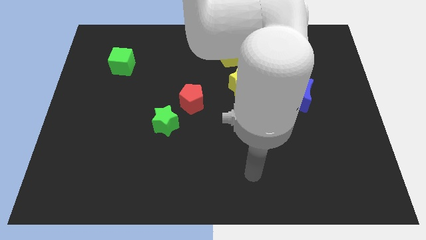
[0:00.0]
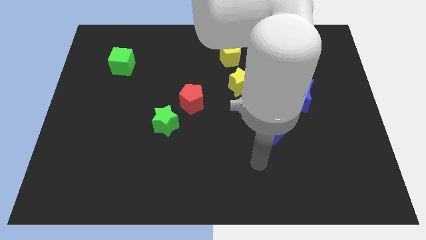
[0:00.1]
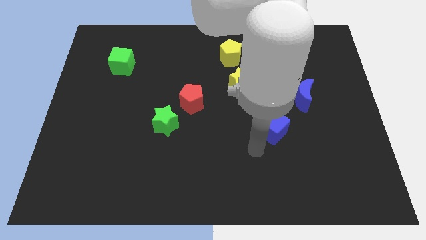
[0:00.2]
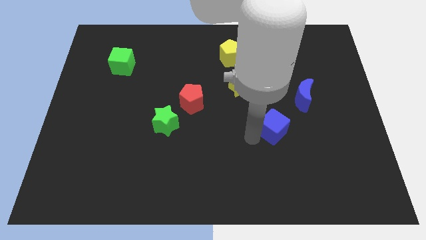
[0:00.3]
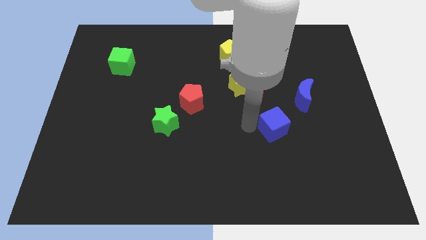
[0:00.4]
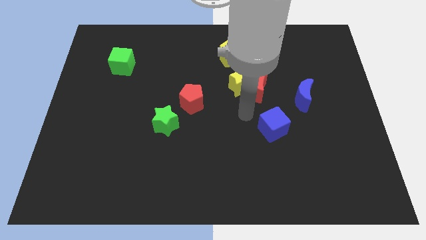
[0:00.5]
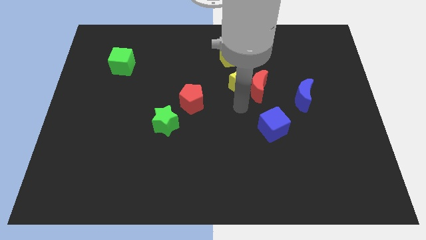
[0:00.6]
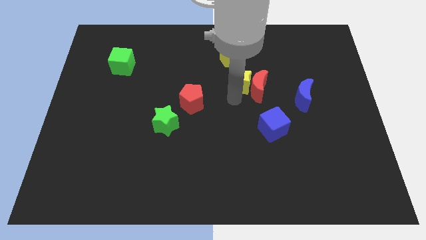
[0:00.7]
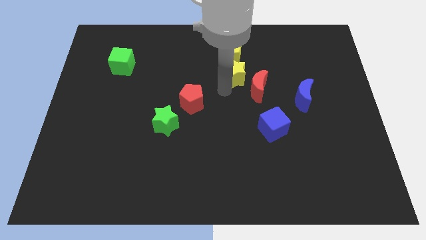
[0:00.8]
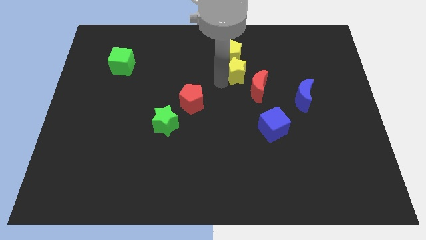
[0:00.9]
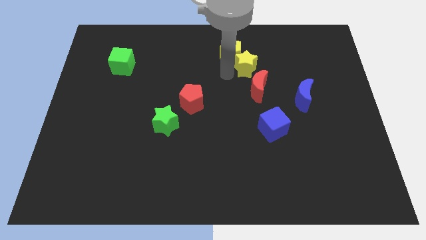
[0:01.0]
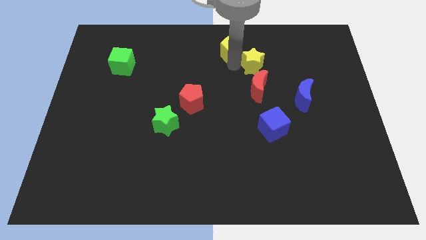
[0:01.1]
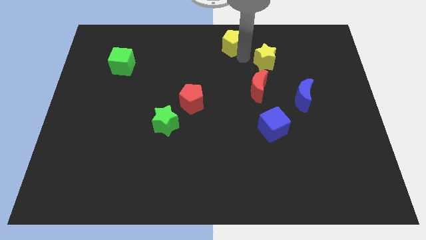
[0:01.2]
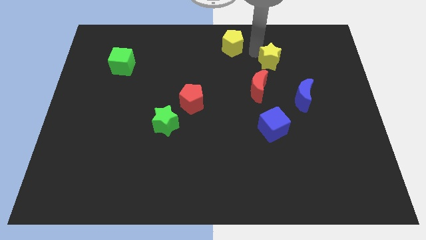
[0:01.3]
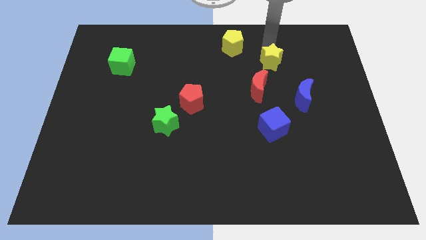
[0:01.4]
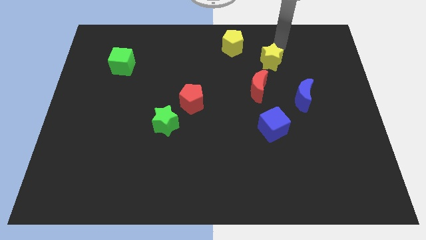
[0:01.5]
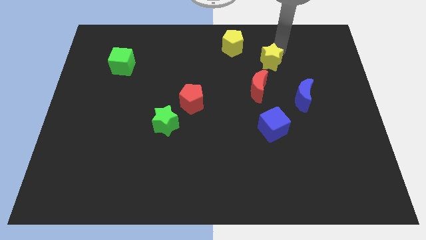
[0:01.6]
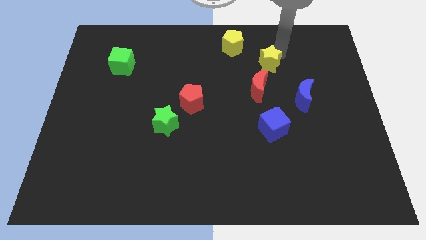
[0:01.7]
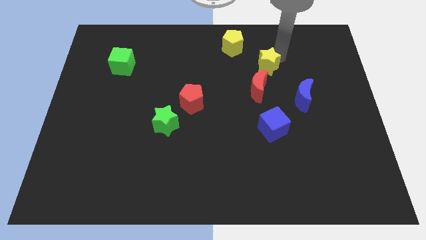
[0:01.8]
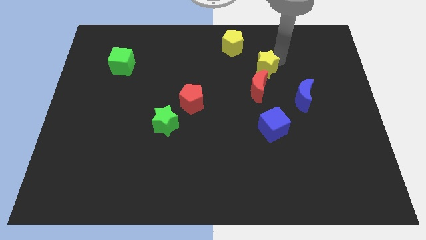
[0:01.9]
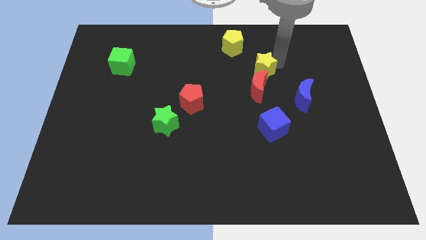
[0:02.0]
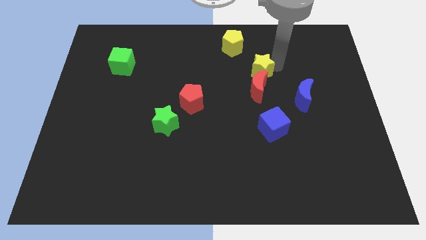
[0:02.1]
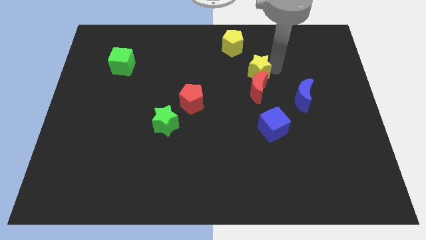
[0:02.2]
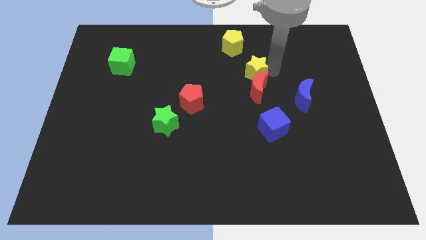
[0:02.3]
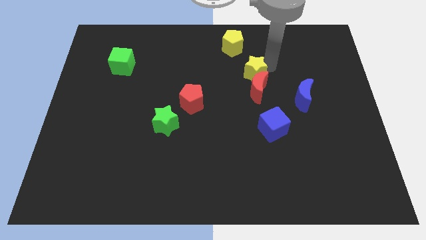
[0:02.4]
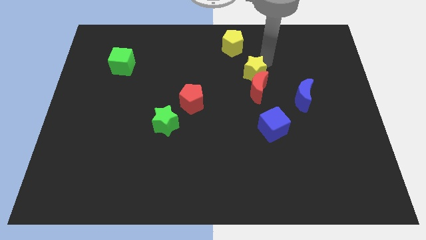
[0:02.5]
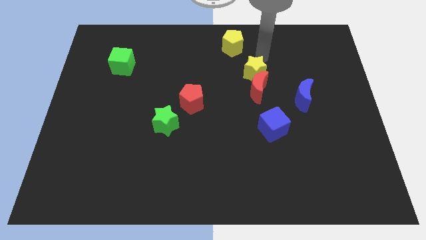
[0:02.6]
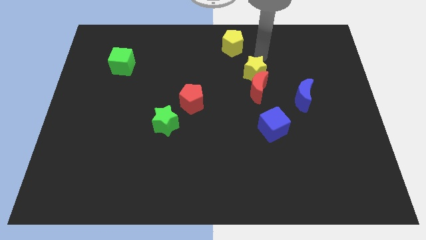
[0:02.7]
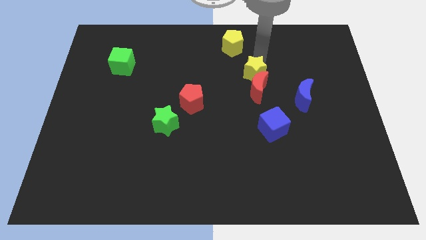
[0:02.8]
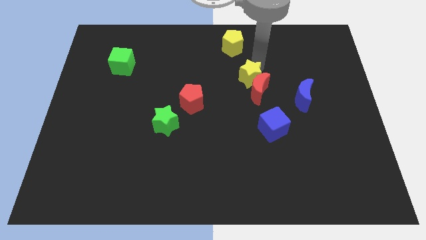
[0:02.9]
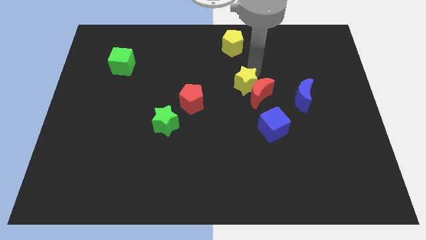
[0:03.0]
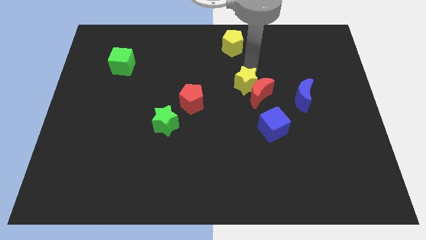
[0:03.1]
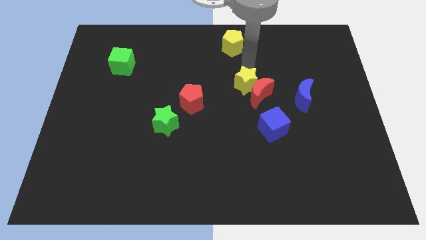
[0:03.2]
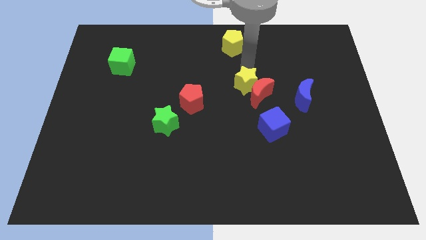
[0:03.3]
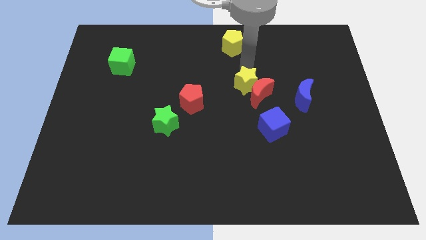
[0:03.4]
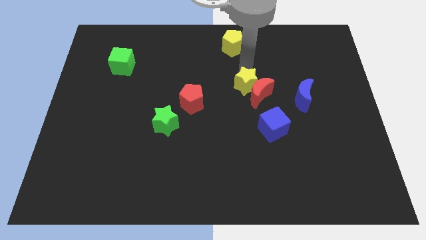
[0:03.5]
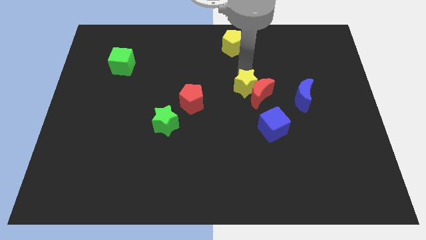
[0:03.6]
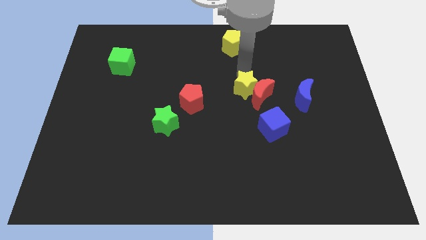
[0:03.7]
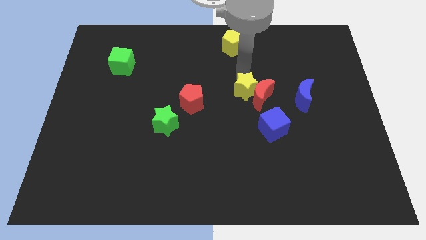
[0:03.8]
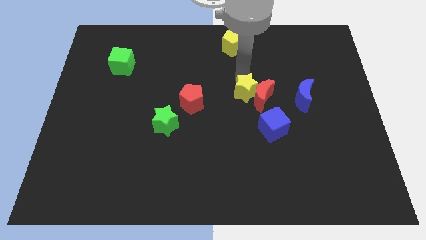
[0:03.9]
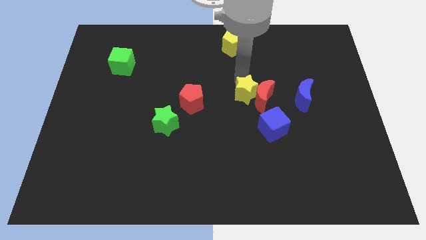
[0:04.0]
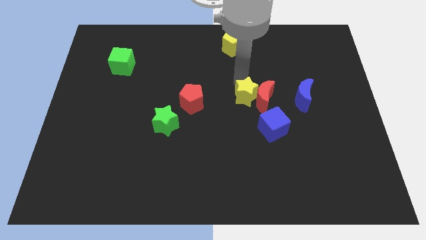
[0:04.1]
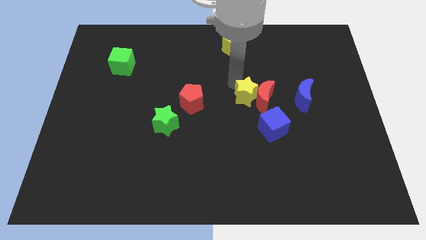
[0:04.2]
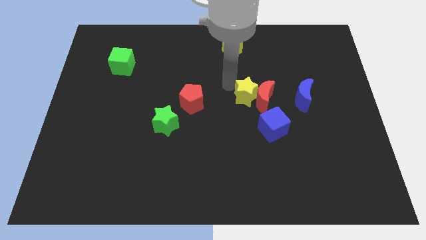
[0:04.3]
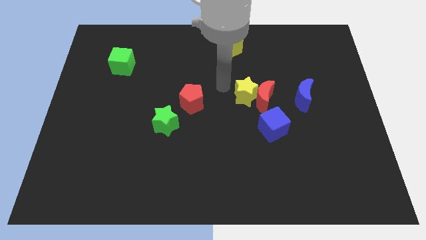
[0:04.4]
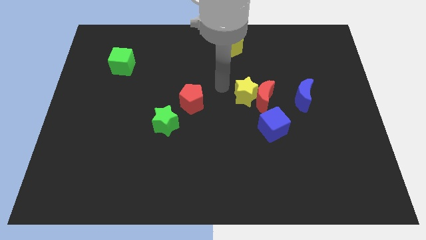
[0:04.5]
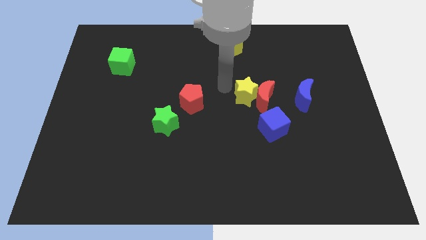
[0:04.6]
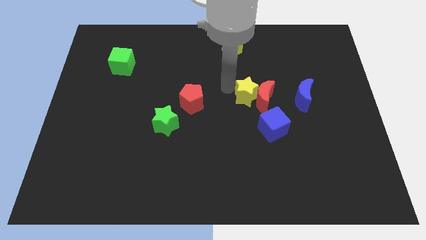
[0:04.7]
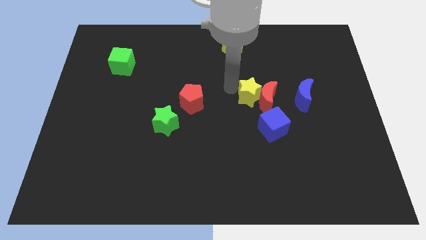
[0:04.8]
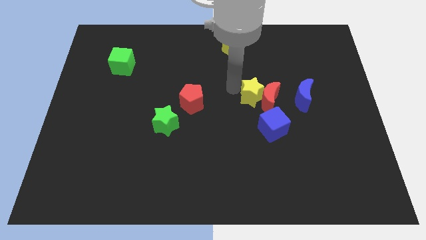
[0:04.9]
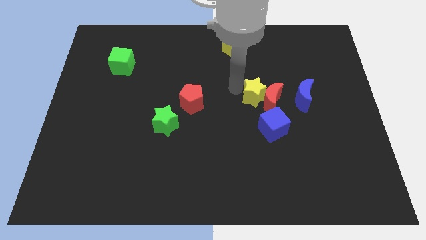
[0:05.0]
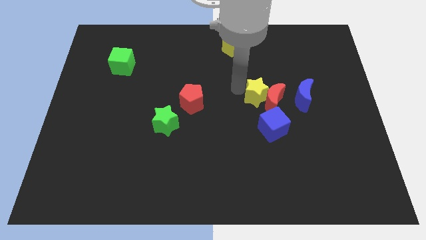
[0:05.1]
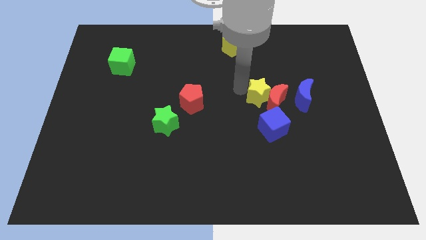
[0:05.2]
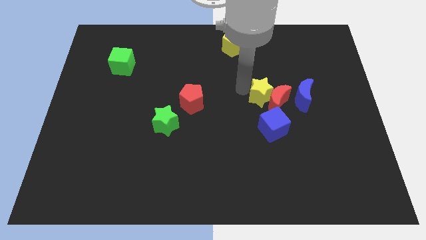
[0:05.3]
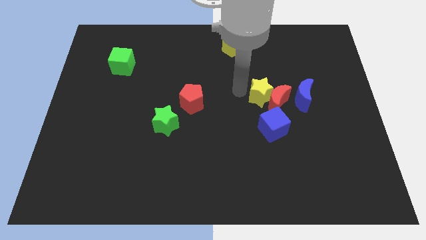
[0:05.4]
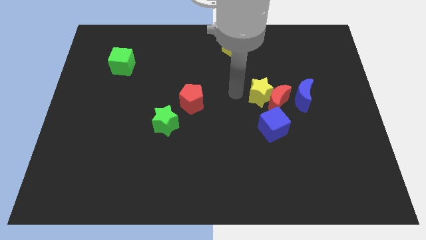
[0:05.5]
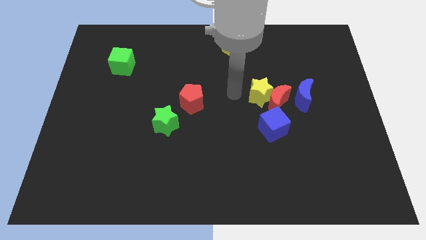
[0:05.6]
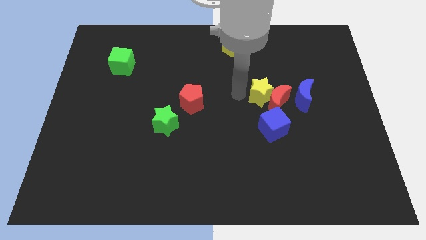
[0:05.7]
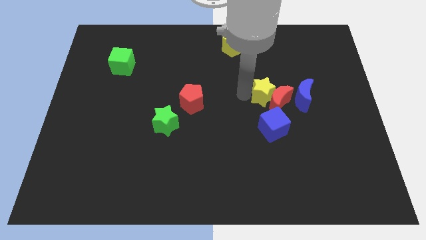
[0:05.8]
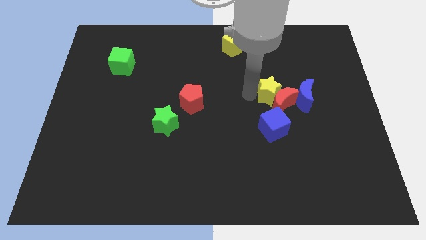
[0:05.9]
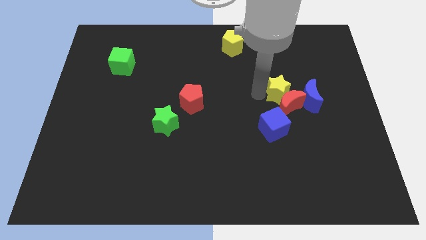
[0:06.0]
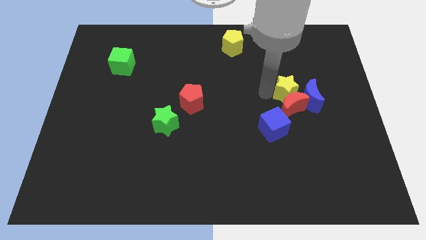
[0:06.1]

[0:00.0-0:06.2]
push the yellow star to the blue moon
